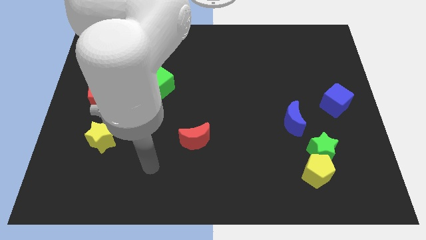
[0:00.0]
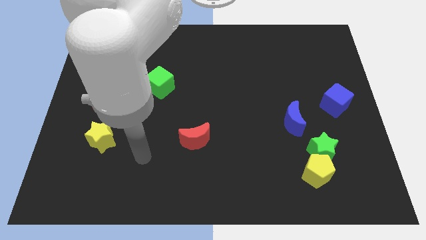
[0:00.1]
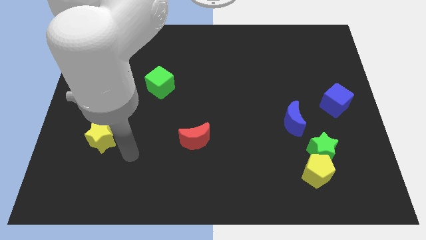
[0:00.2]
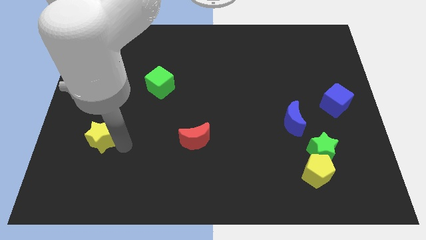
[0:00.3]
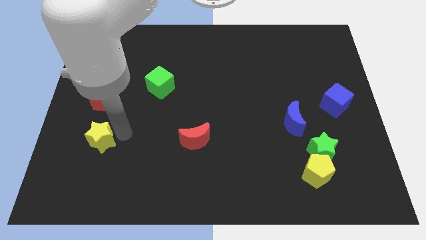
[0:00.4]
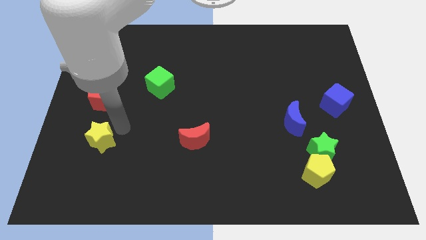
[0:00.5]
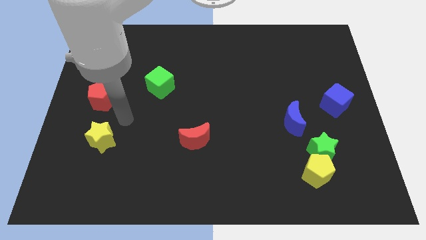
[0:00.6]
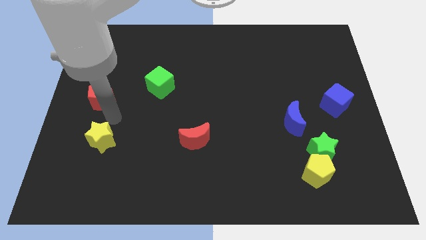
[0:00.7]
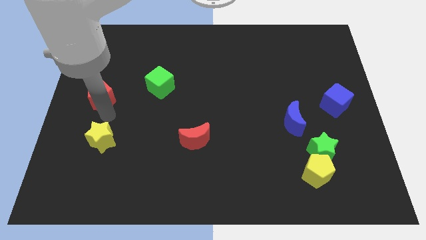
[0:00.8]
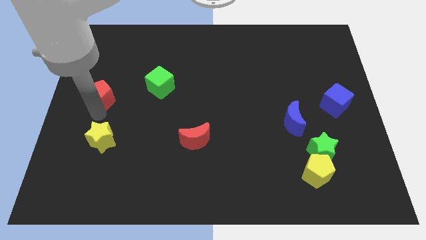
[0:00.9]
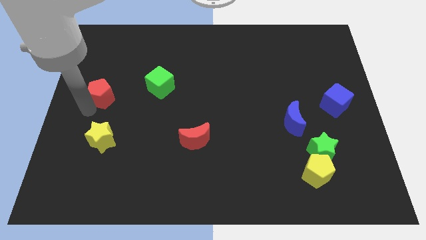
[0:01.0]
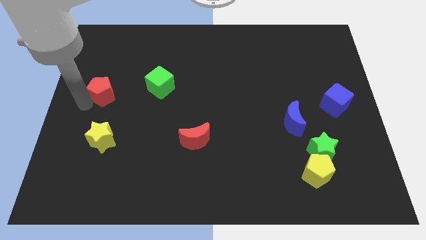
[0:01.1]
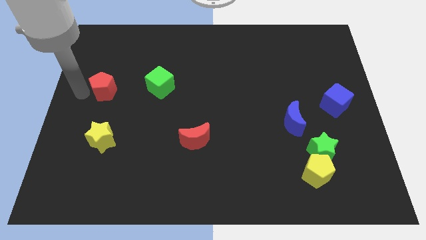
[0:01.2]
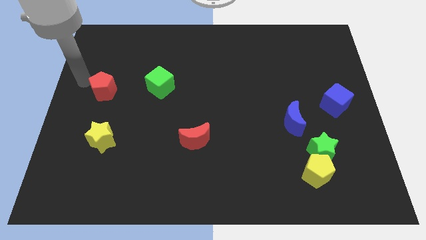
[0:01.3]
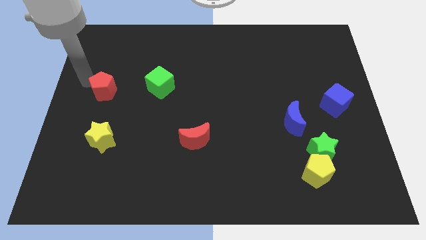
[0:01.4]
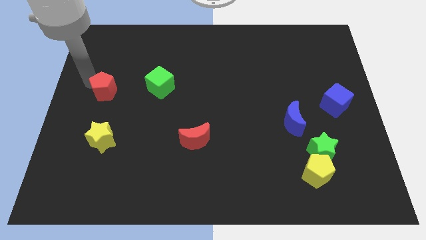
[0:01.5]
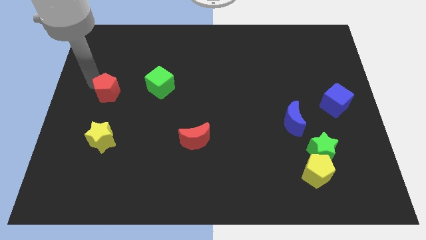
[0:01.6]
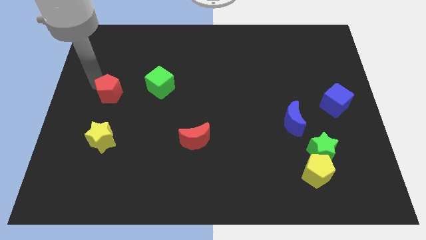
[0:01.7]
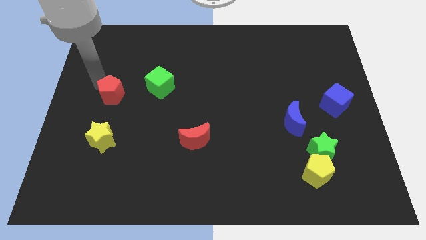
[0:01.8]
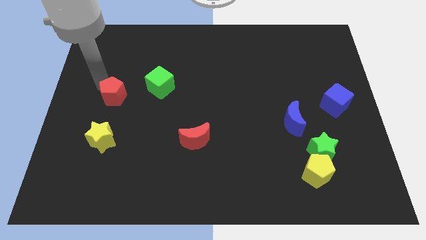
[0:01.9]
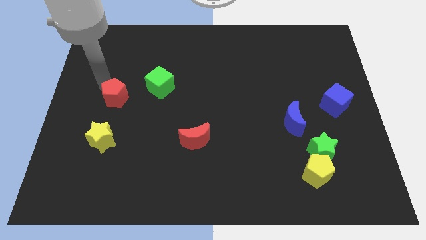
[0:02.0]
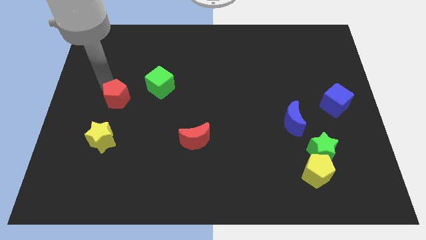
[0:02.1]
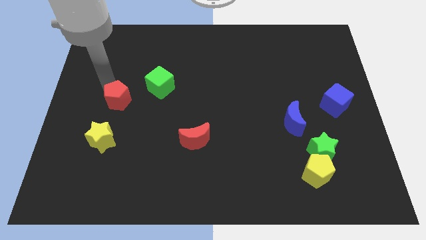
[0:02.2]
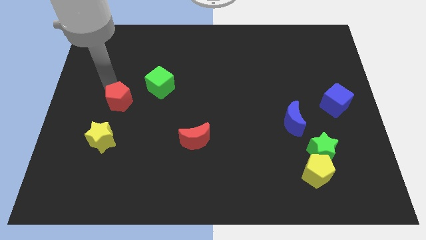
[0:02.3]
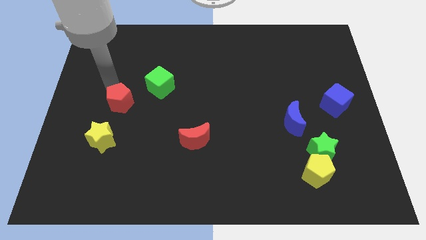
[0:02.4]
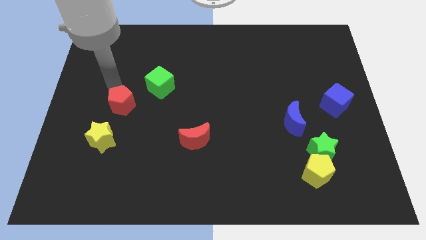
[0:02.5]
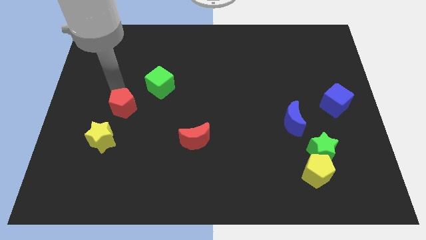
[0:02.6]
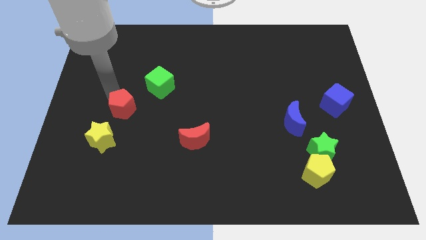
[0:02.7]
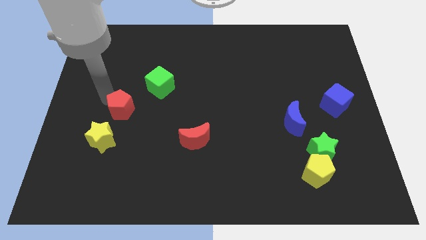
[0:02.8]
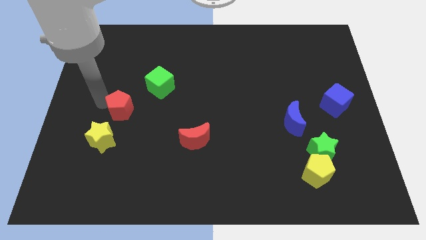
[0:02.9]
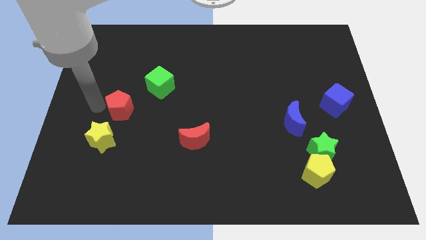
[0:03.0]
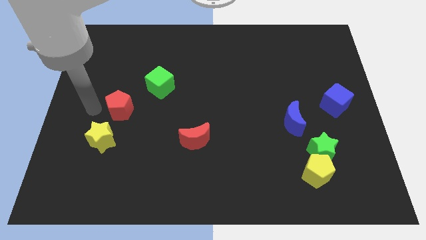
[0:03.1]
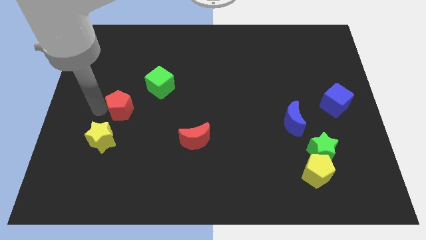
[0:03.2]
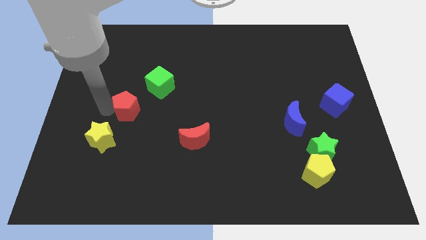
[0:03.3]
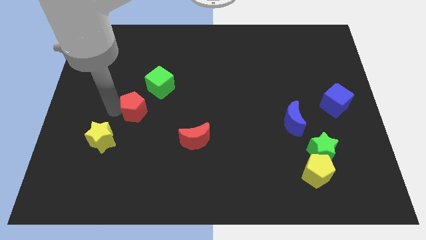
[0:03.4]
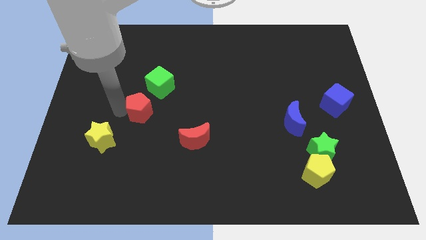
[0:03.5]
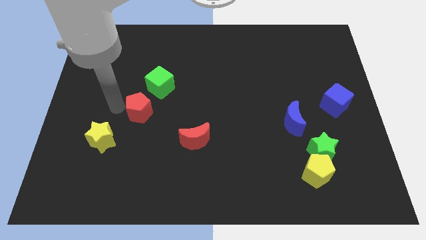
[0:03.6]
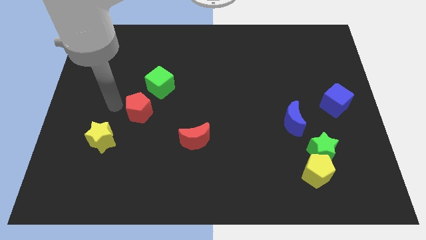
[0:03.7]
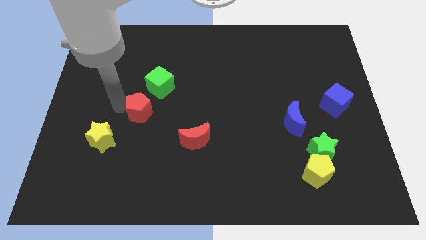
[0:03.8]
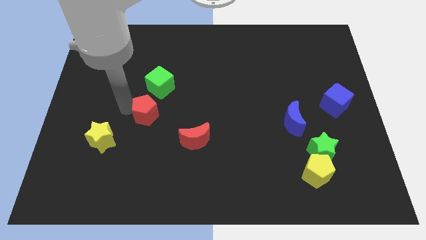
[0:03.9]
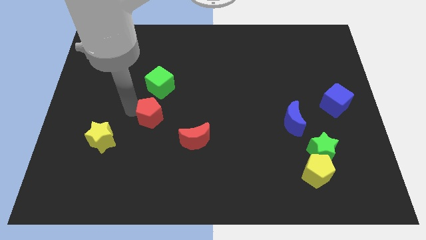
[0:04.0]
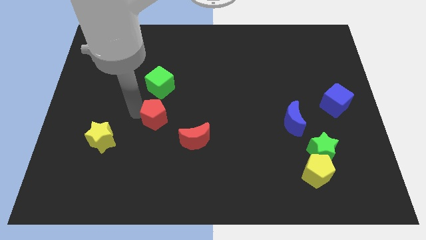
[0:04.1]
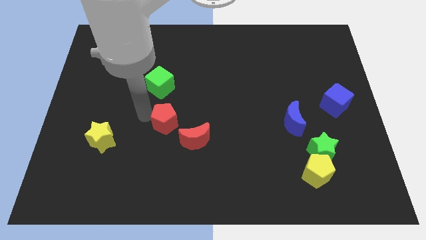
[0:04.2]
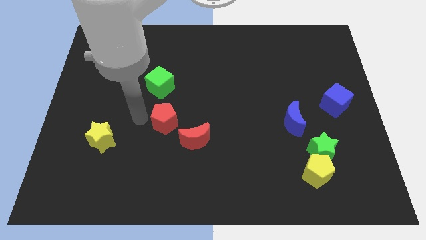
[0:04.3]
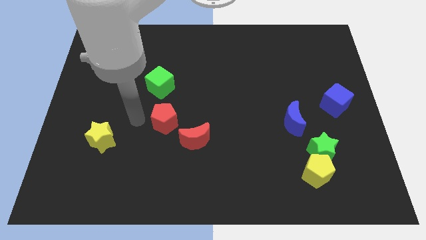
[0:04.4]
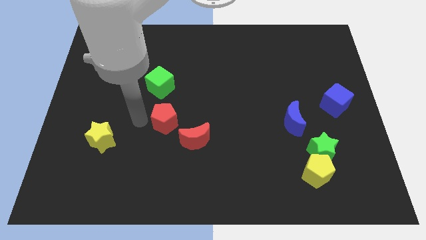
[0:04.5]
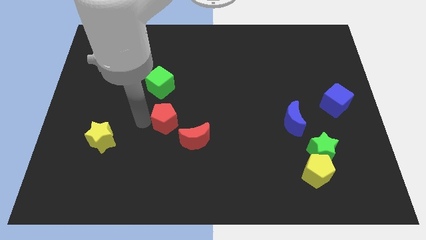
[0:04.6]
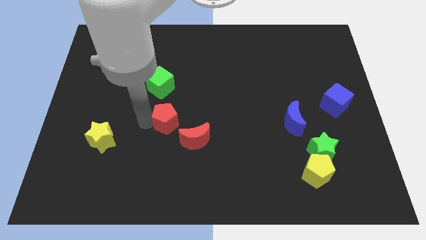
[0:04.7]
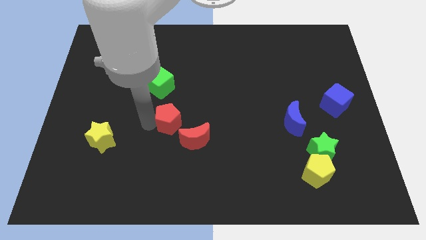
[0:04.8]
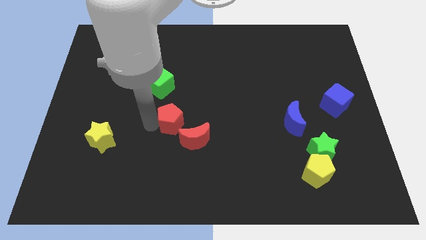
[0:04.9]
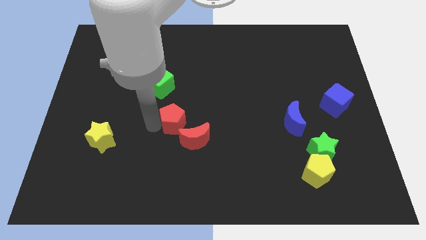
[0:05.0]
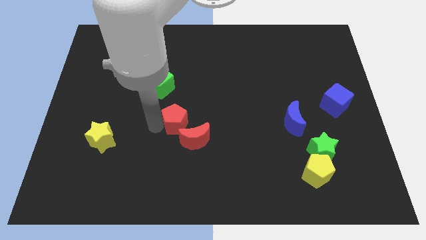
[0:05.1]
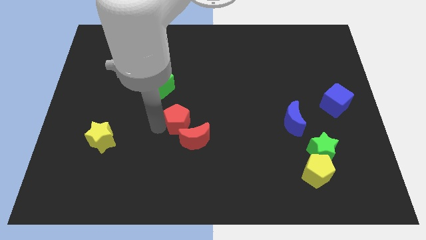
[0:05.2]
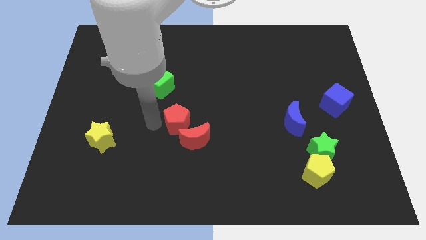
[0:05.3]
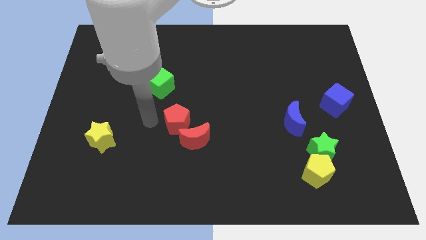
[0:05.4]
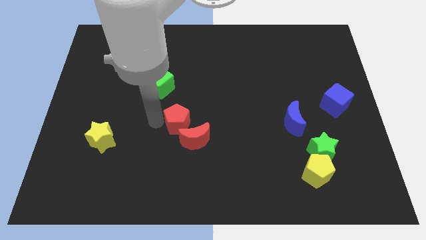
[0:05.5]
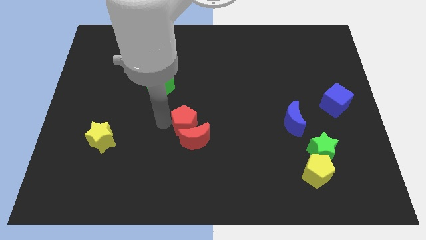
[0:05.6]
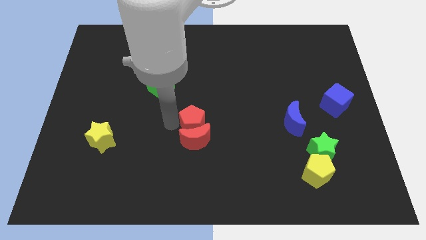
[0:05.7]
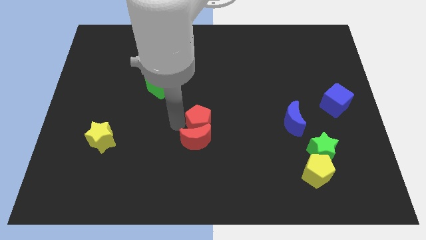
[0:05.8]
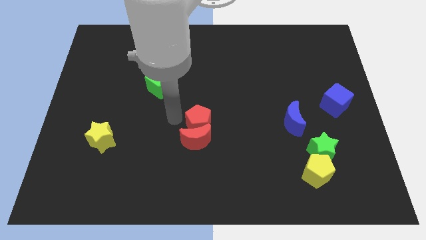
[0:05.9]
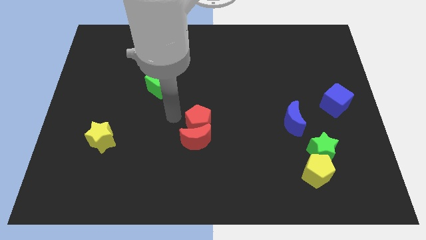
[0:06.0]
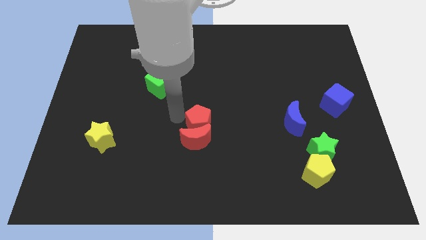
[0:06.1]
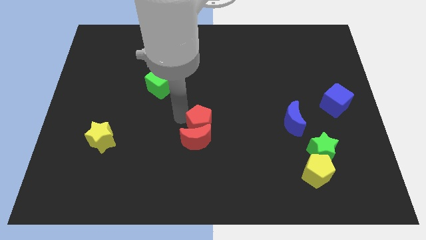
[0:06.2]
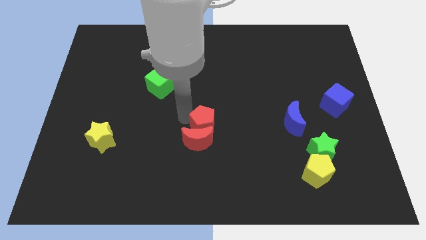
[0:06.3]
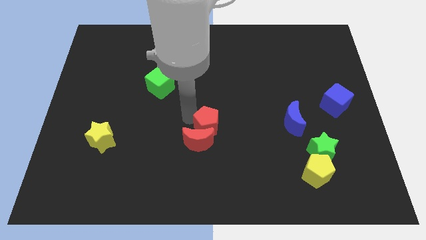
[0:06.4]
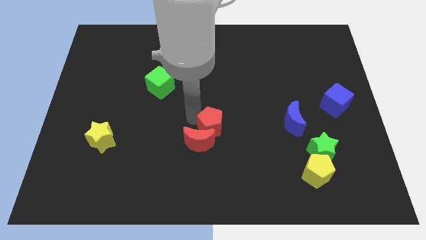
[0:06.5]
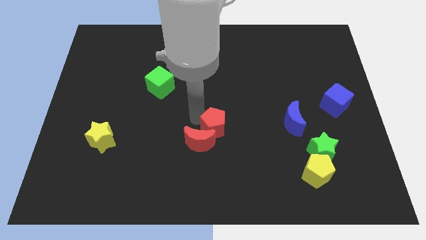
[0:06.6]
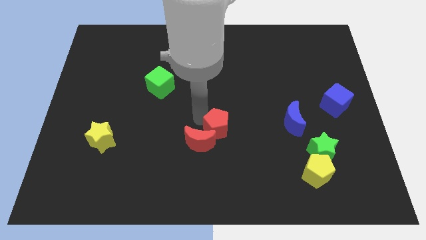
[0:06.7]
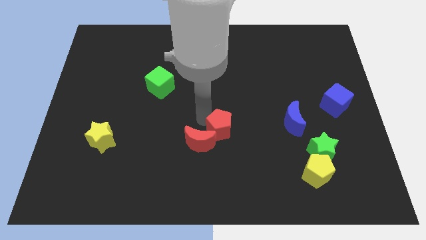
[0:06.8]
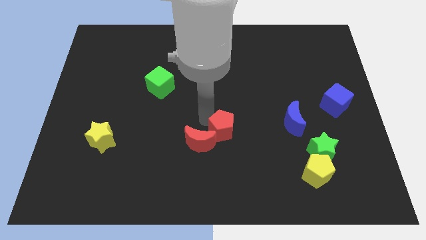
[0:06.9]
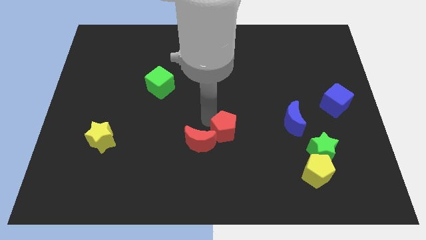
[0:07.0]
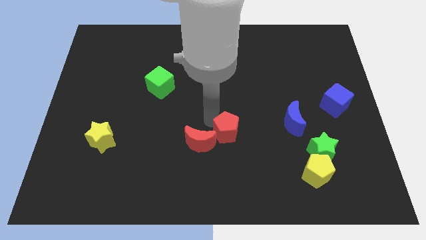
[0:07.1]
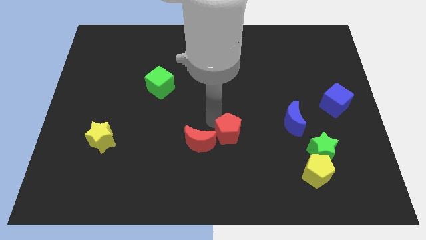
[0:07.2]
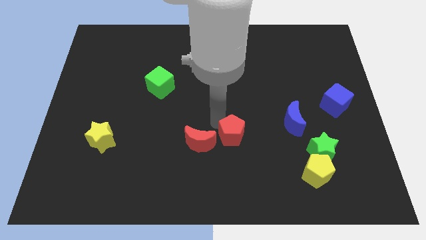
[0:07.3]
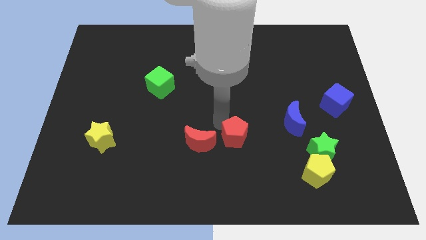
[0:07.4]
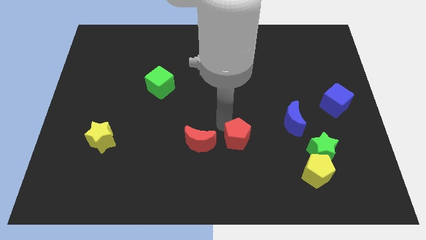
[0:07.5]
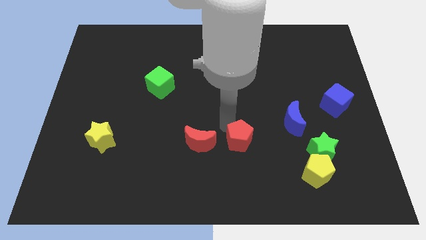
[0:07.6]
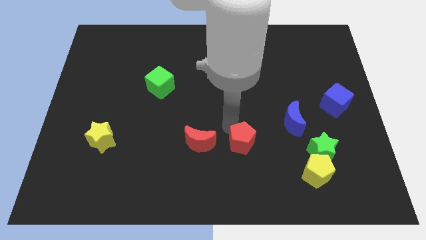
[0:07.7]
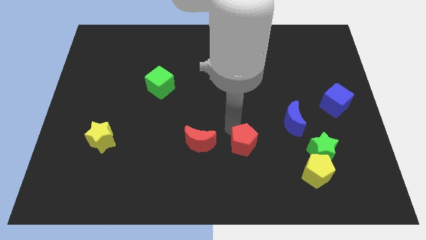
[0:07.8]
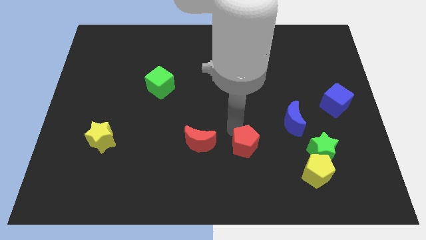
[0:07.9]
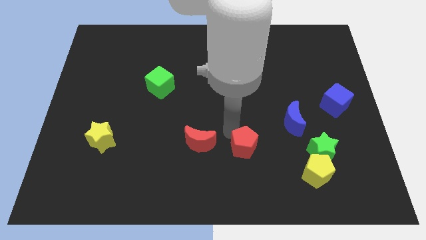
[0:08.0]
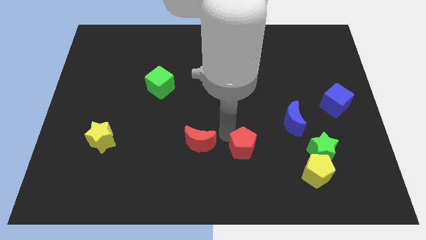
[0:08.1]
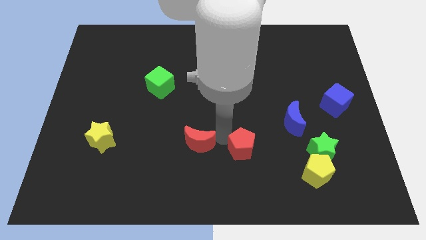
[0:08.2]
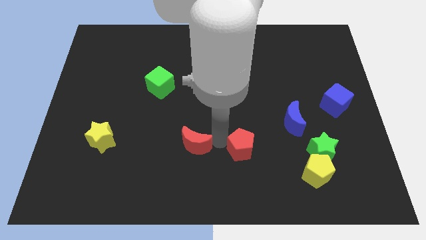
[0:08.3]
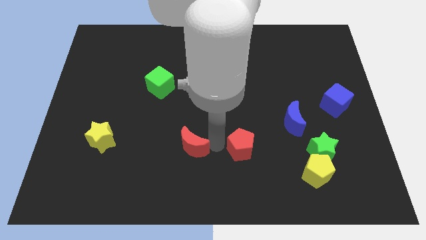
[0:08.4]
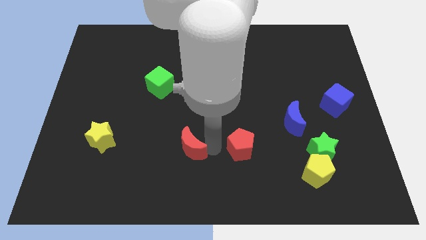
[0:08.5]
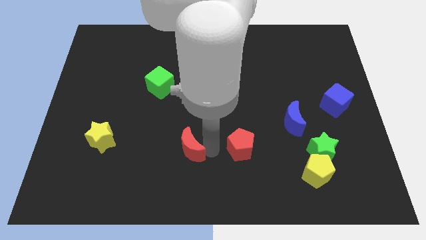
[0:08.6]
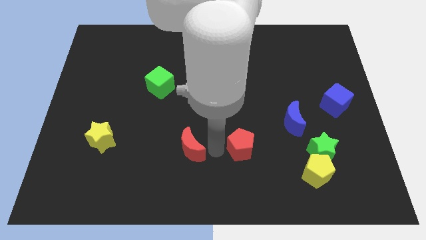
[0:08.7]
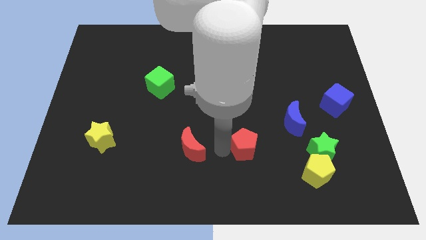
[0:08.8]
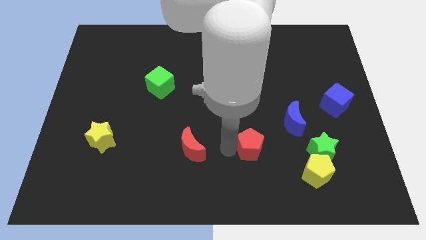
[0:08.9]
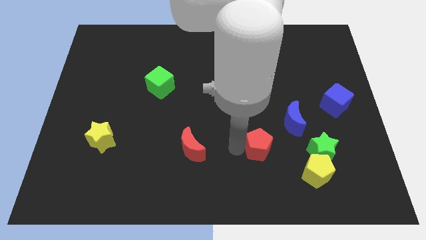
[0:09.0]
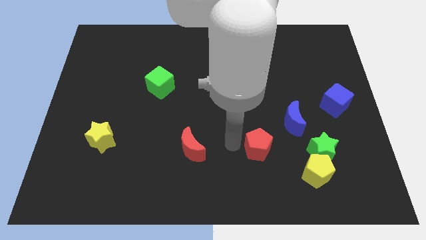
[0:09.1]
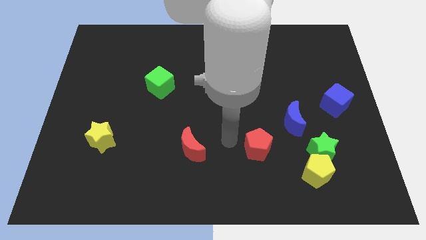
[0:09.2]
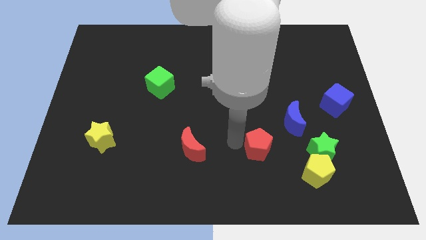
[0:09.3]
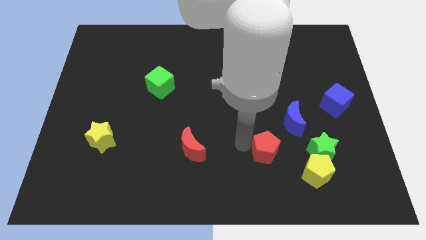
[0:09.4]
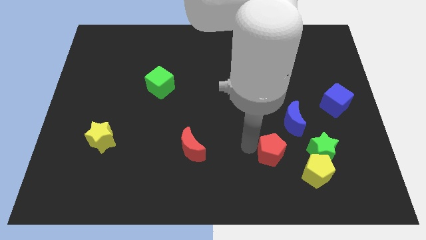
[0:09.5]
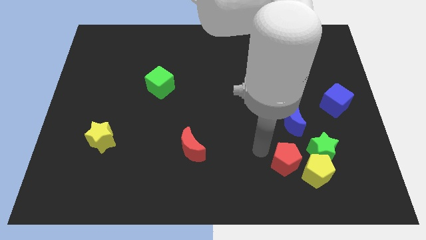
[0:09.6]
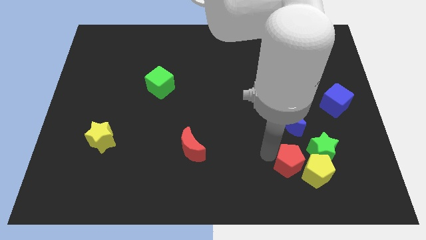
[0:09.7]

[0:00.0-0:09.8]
push the red pentagon to the yellow pentagon
